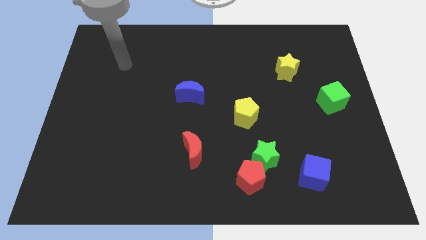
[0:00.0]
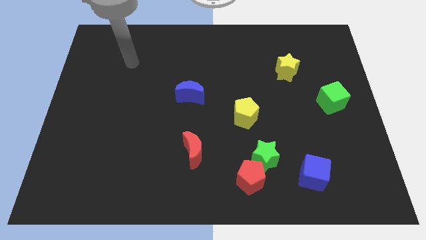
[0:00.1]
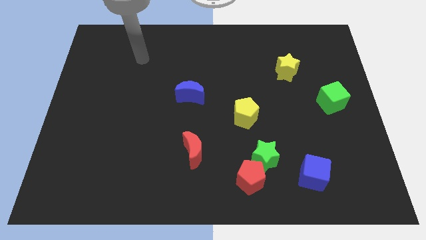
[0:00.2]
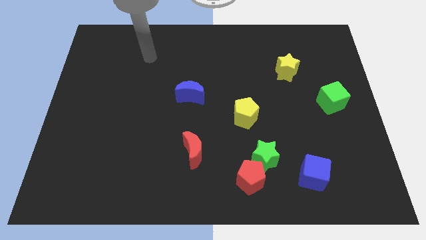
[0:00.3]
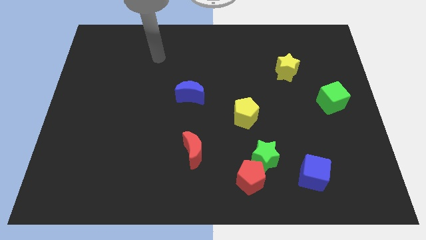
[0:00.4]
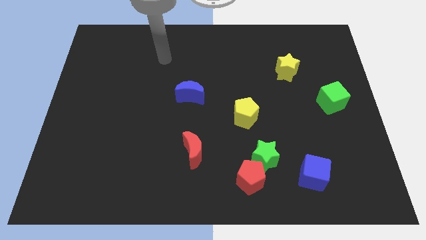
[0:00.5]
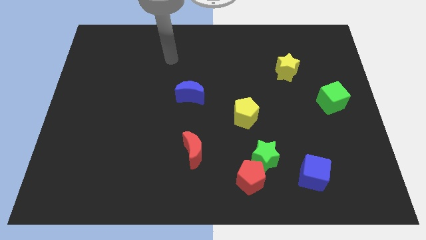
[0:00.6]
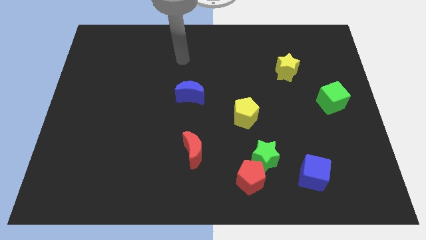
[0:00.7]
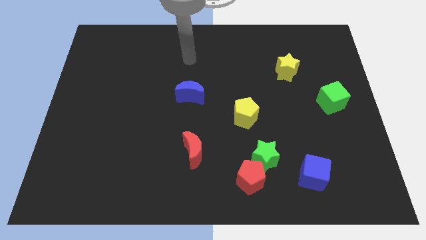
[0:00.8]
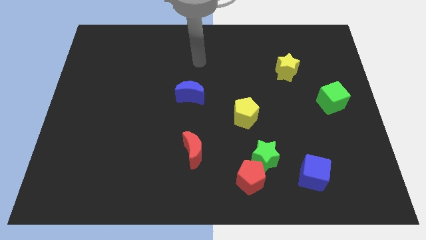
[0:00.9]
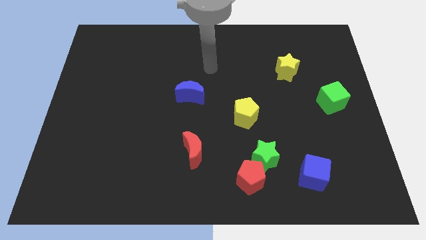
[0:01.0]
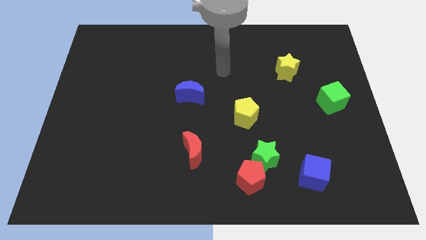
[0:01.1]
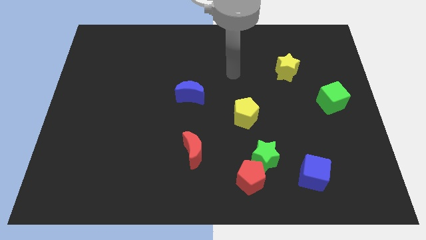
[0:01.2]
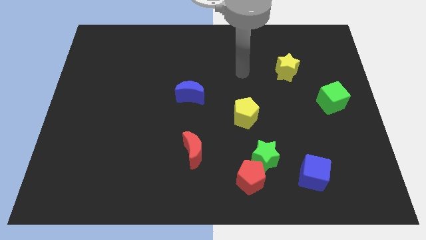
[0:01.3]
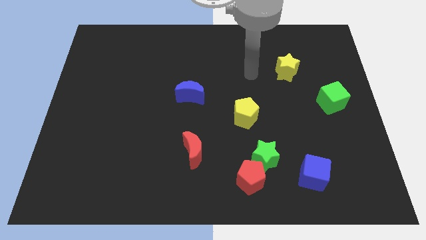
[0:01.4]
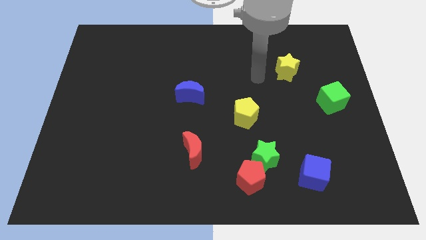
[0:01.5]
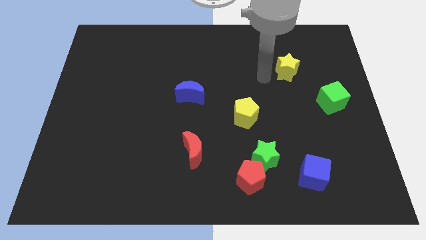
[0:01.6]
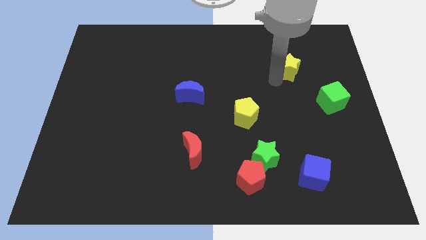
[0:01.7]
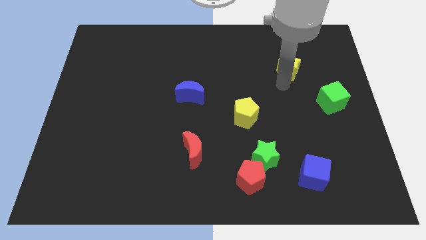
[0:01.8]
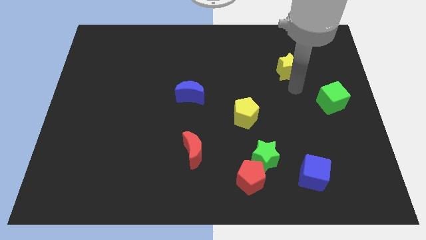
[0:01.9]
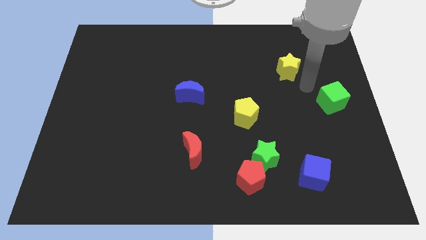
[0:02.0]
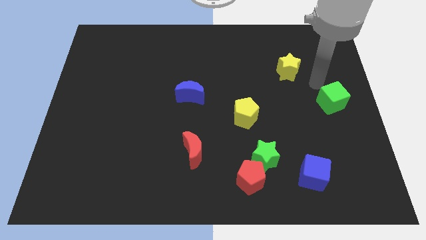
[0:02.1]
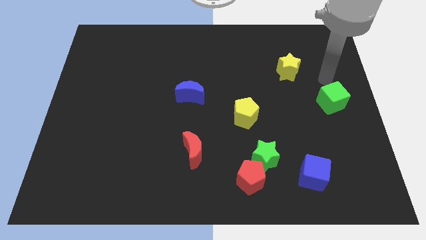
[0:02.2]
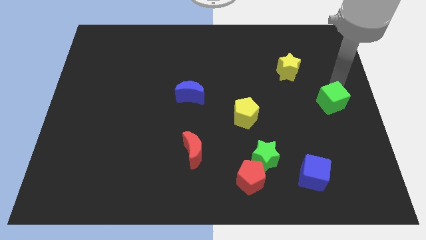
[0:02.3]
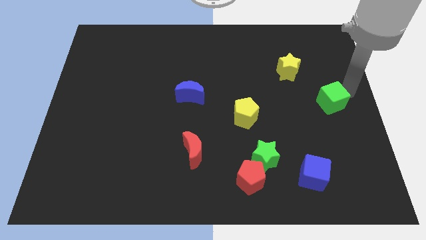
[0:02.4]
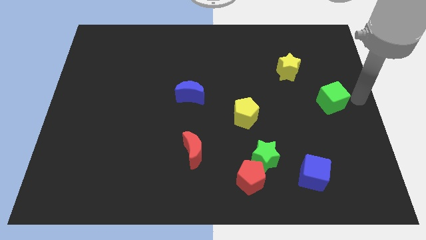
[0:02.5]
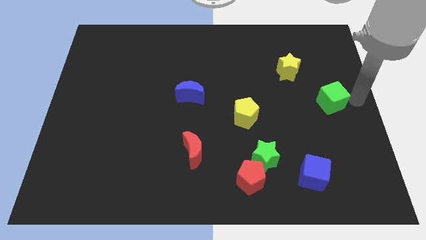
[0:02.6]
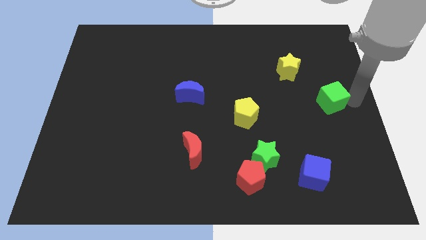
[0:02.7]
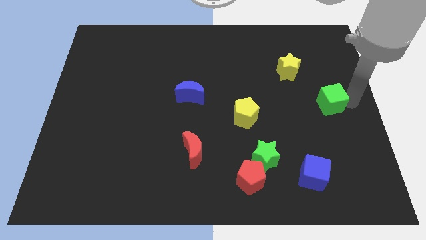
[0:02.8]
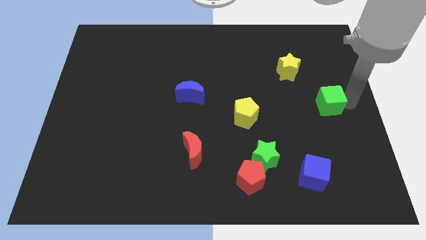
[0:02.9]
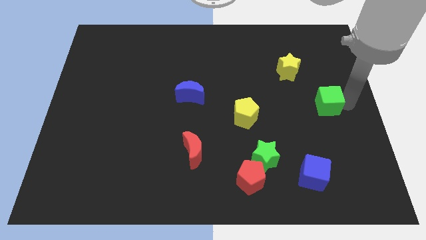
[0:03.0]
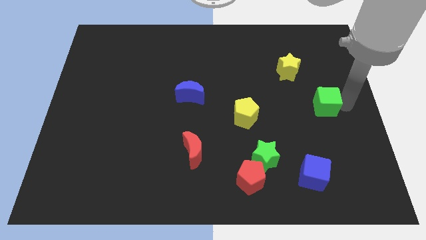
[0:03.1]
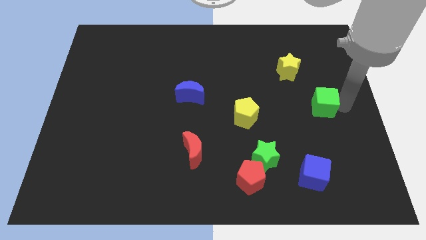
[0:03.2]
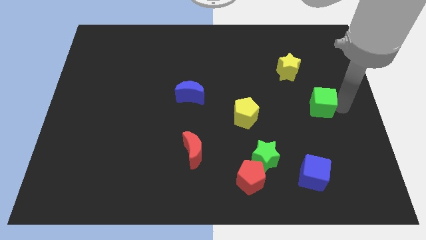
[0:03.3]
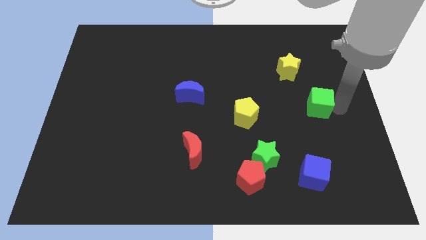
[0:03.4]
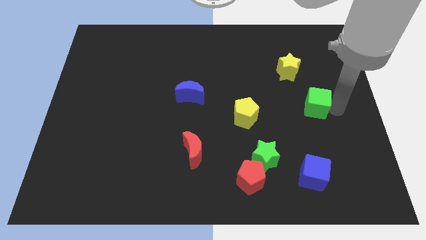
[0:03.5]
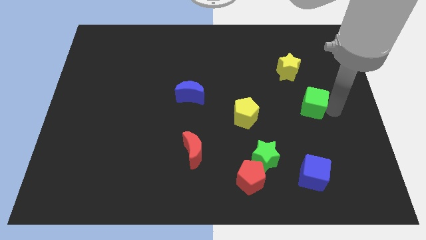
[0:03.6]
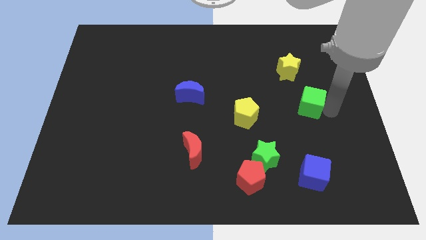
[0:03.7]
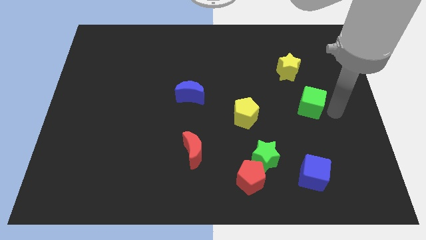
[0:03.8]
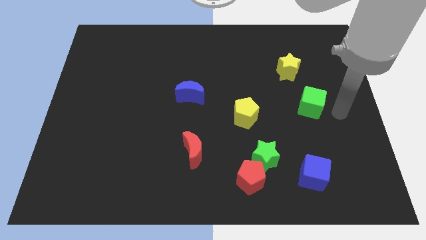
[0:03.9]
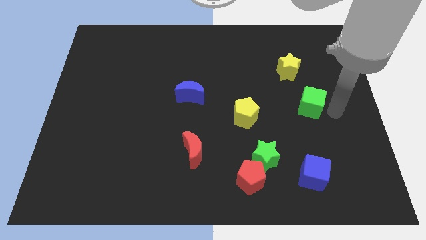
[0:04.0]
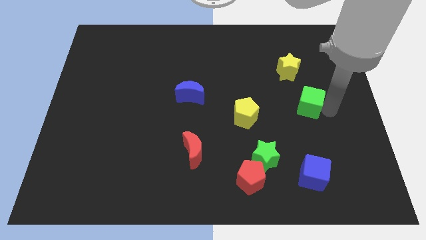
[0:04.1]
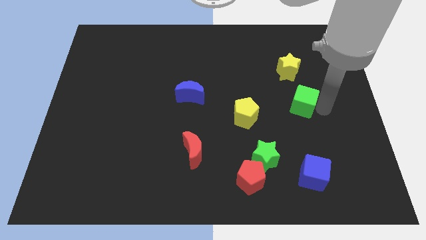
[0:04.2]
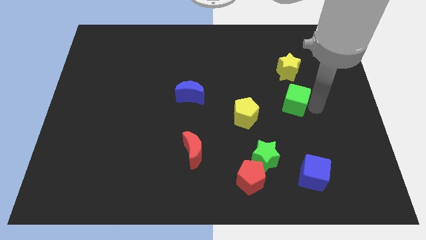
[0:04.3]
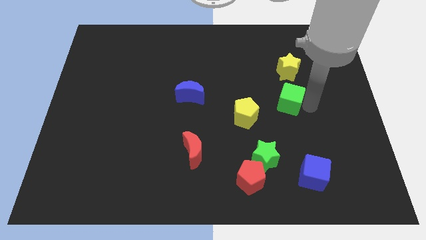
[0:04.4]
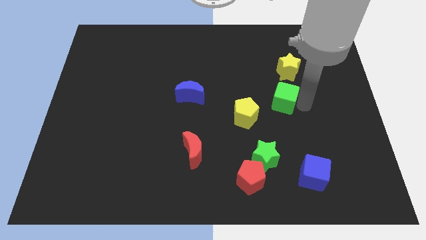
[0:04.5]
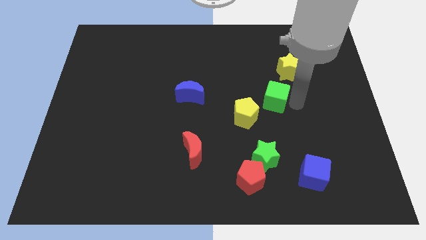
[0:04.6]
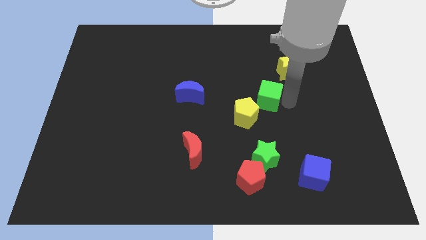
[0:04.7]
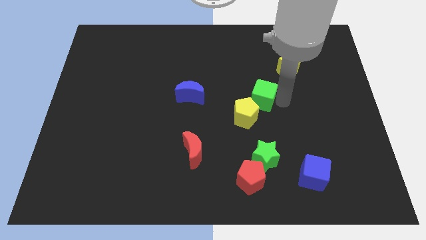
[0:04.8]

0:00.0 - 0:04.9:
push the green cube to the center of the board

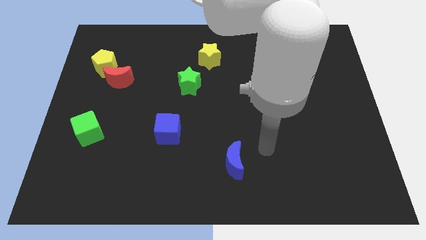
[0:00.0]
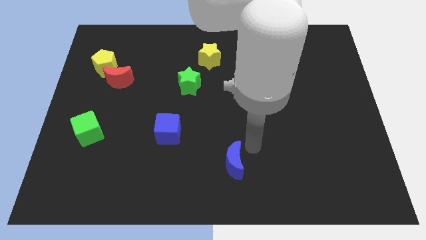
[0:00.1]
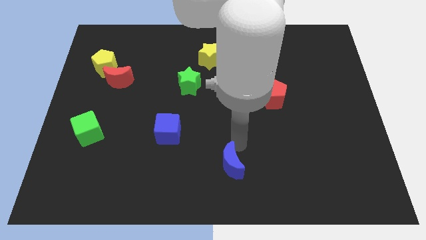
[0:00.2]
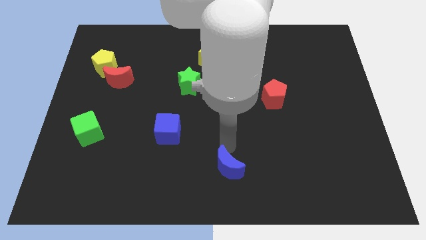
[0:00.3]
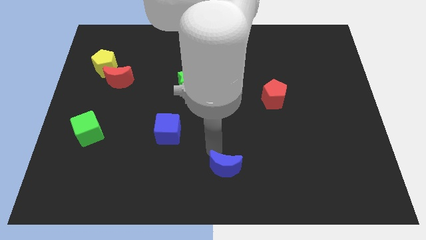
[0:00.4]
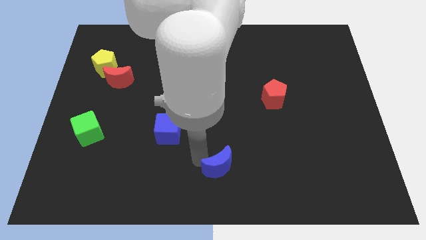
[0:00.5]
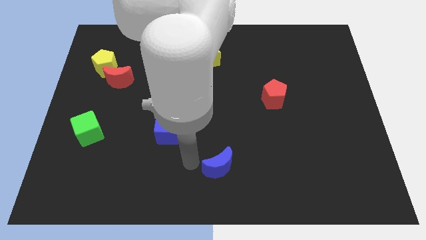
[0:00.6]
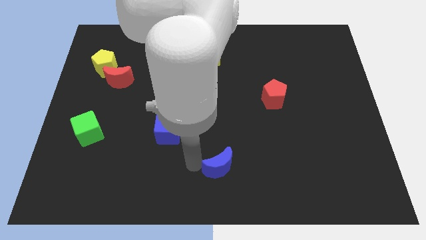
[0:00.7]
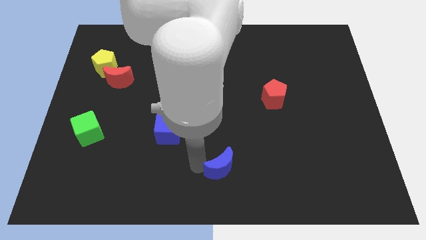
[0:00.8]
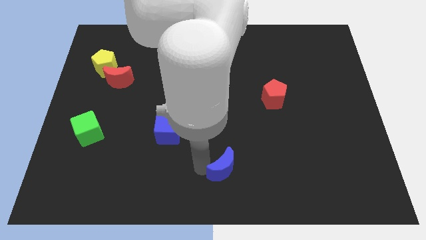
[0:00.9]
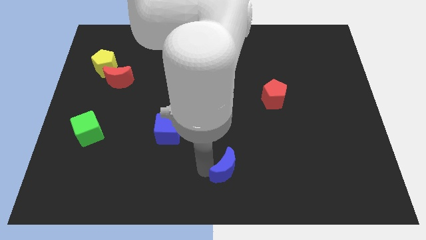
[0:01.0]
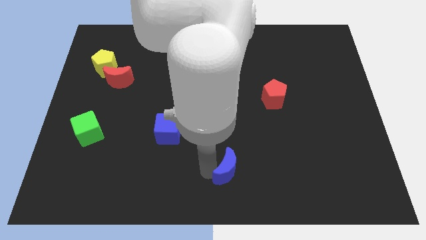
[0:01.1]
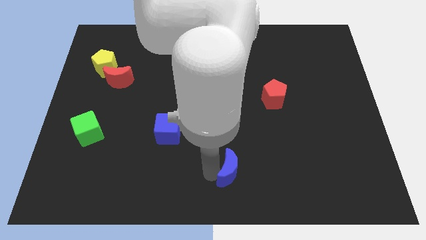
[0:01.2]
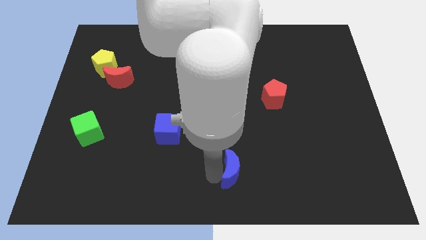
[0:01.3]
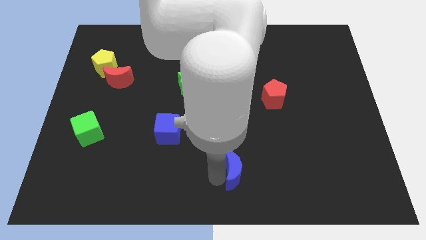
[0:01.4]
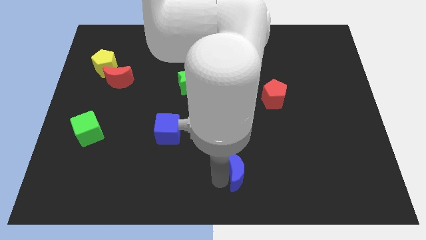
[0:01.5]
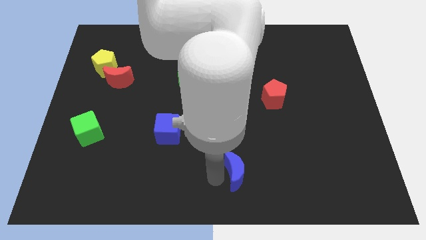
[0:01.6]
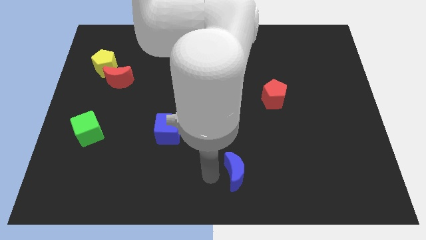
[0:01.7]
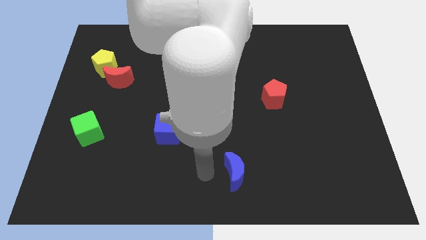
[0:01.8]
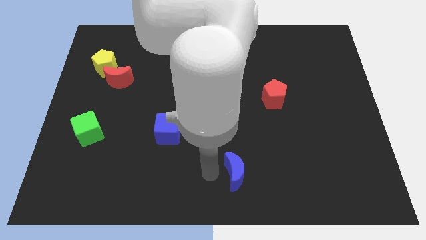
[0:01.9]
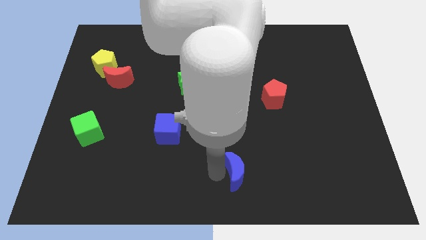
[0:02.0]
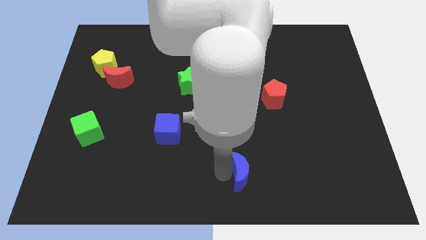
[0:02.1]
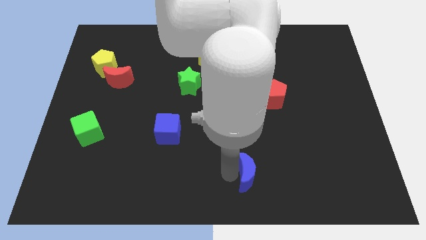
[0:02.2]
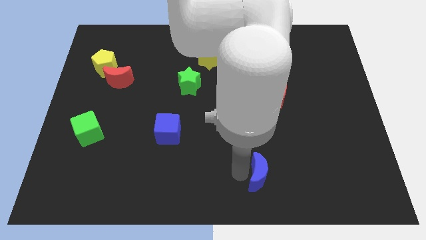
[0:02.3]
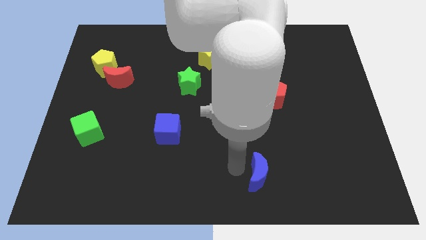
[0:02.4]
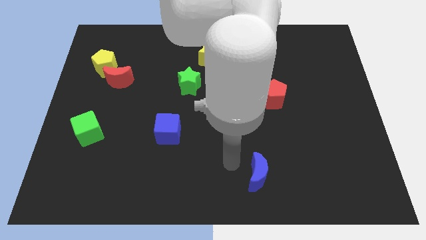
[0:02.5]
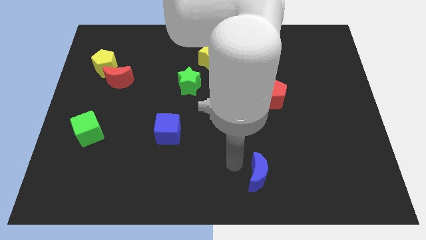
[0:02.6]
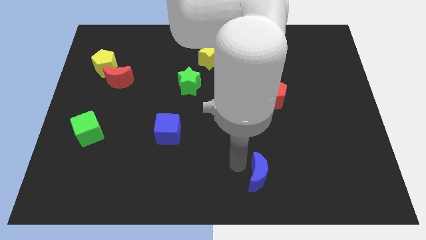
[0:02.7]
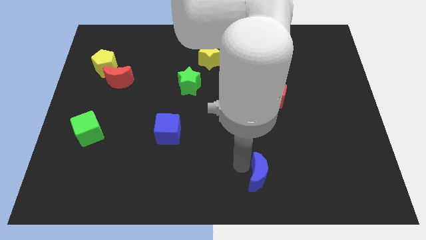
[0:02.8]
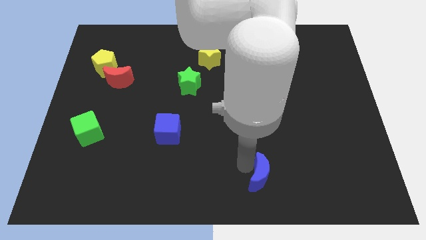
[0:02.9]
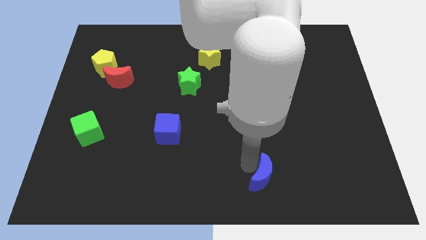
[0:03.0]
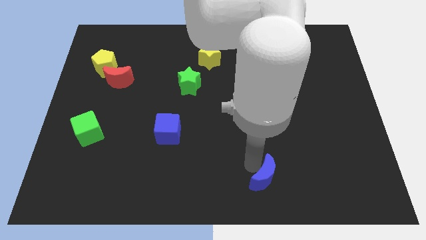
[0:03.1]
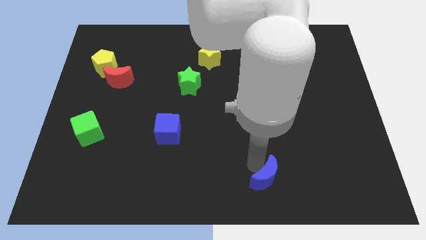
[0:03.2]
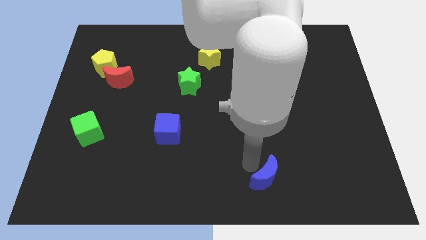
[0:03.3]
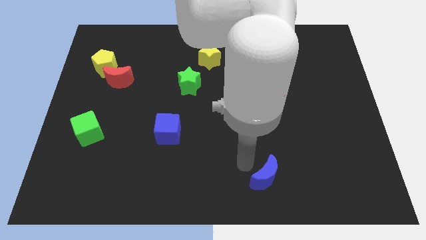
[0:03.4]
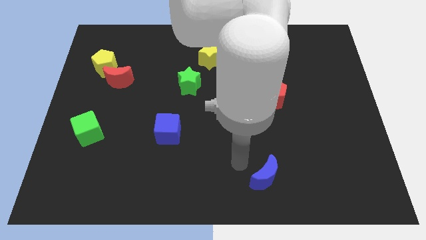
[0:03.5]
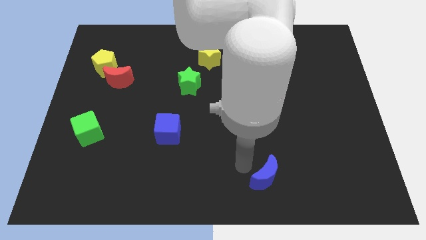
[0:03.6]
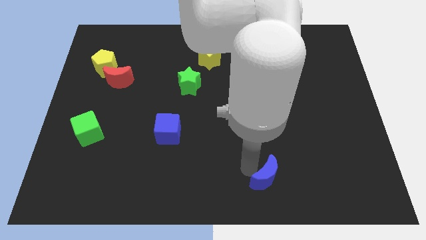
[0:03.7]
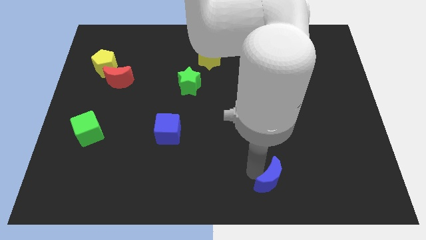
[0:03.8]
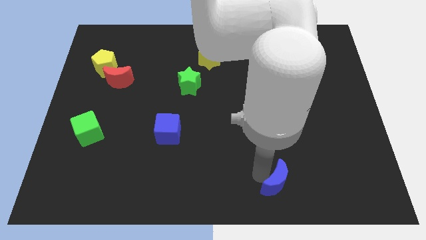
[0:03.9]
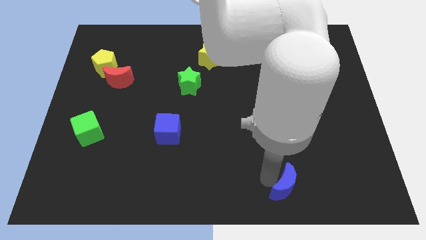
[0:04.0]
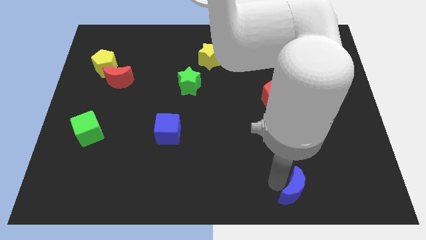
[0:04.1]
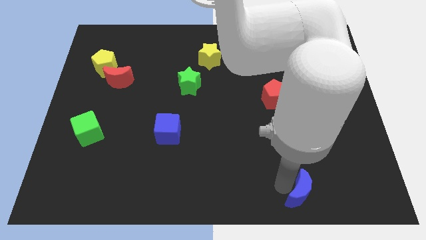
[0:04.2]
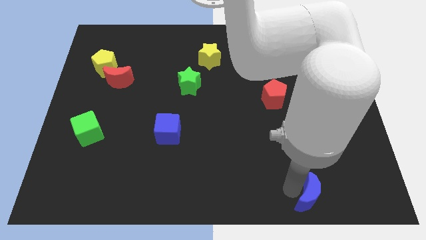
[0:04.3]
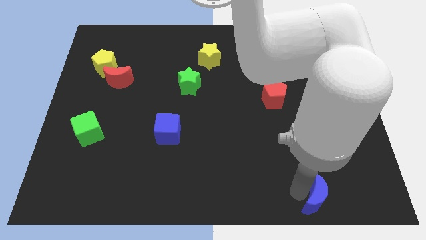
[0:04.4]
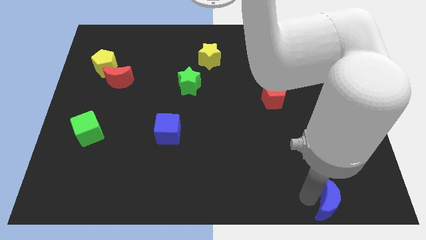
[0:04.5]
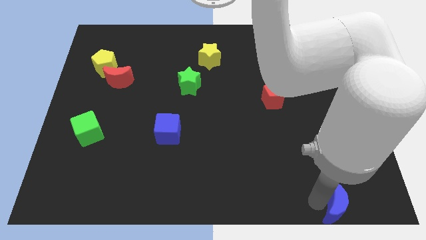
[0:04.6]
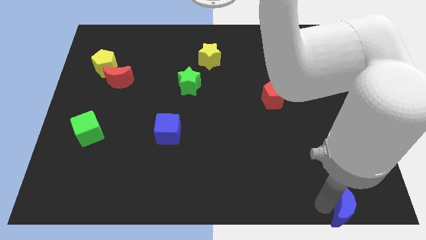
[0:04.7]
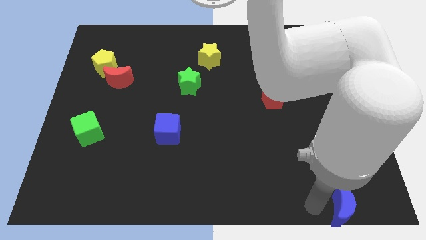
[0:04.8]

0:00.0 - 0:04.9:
move the blue moon to the bottom right
